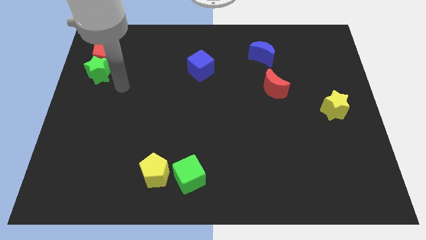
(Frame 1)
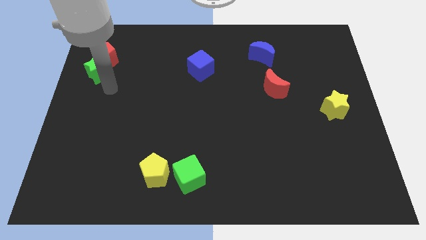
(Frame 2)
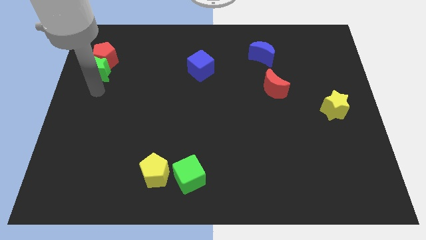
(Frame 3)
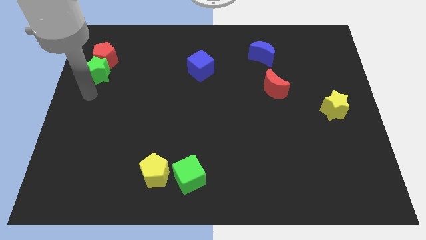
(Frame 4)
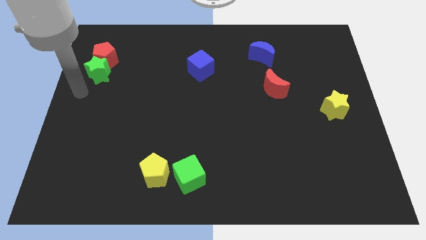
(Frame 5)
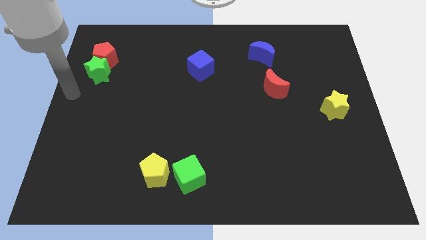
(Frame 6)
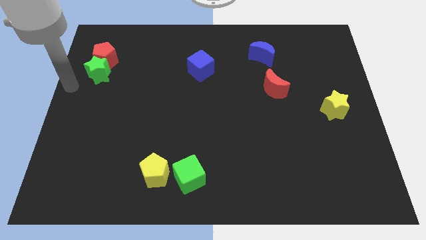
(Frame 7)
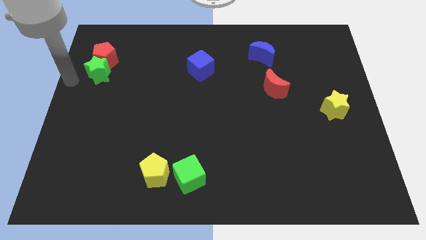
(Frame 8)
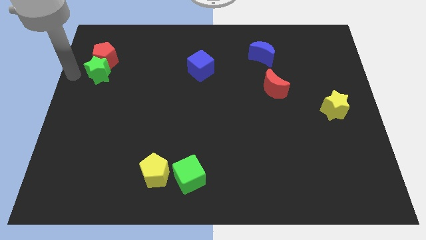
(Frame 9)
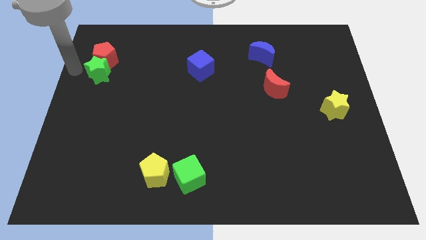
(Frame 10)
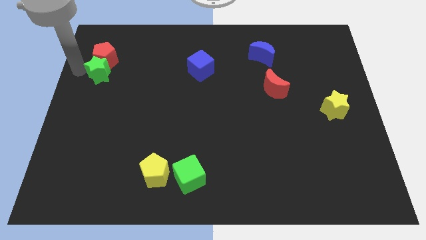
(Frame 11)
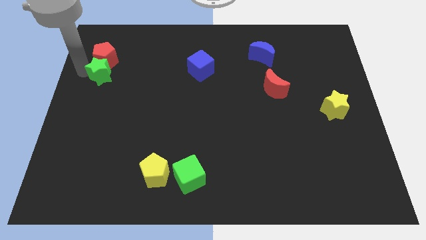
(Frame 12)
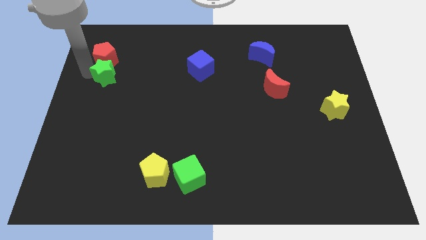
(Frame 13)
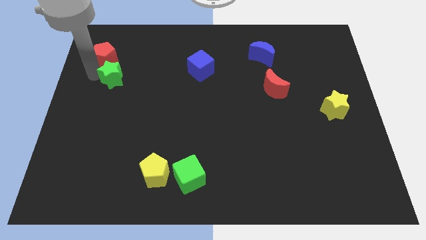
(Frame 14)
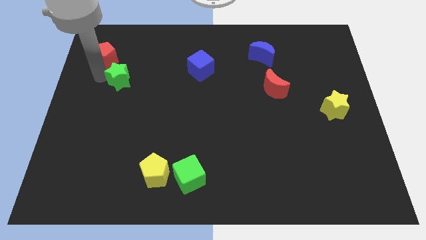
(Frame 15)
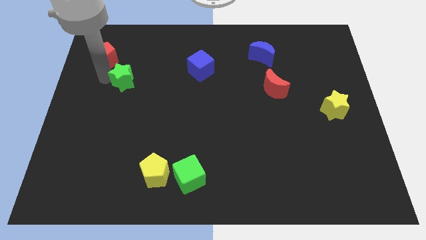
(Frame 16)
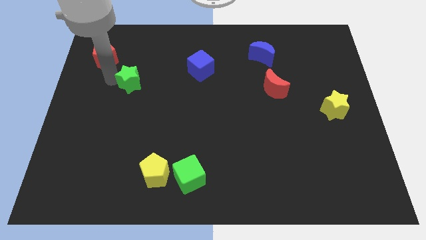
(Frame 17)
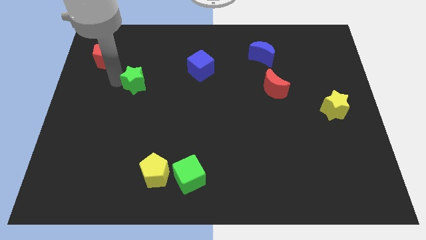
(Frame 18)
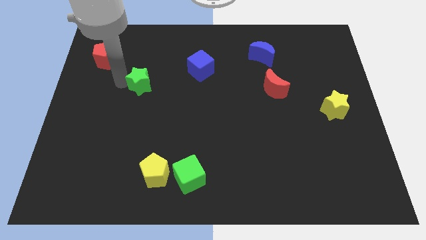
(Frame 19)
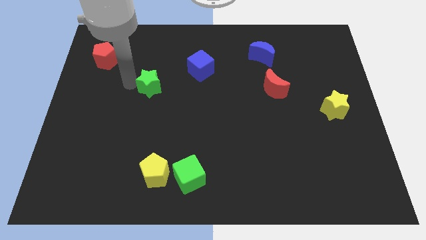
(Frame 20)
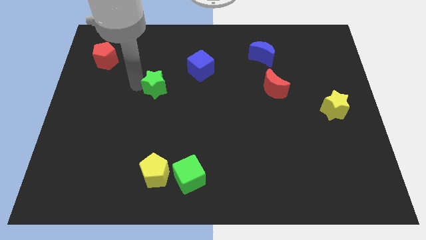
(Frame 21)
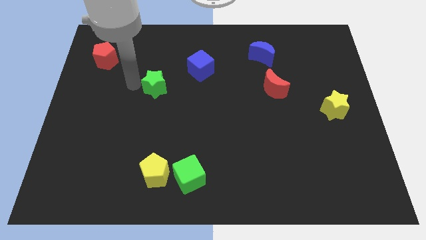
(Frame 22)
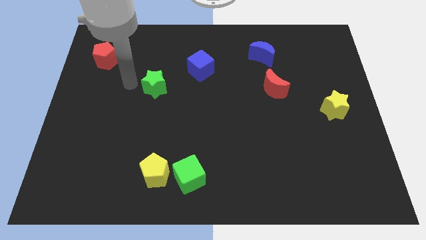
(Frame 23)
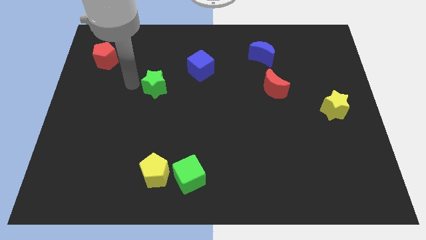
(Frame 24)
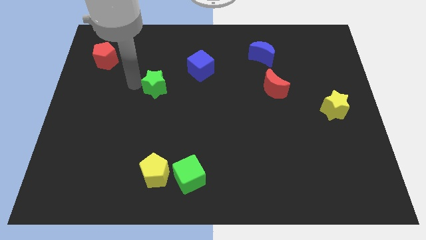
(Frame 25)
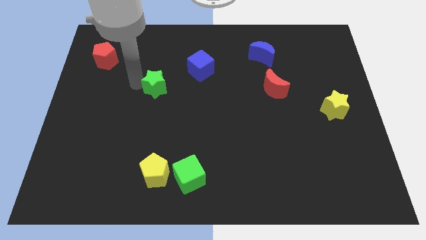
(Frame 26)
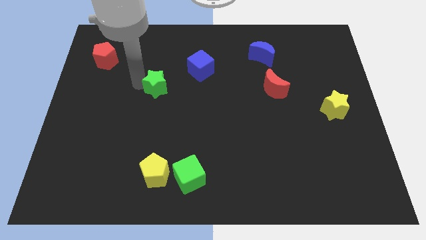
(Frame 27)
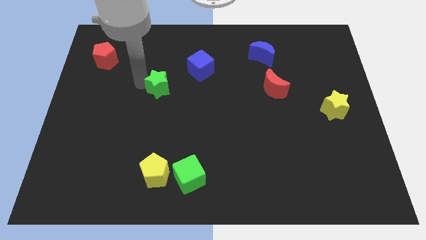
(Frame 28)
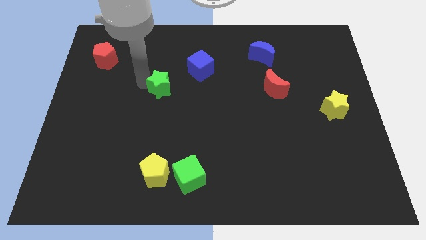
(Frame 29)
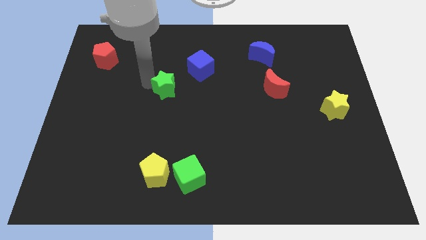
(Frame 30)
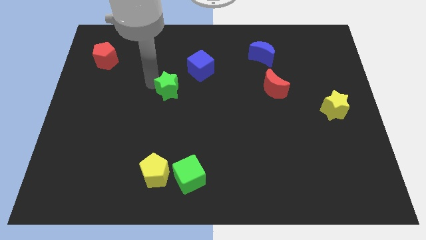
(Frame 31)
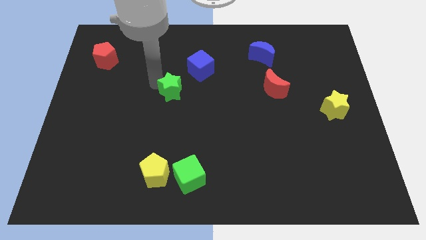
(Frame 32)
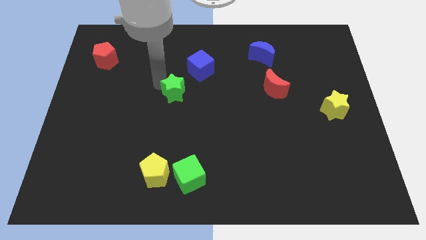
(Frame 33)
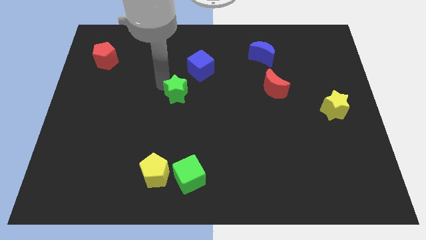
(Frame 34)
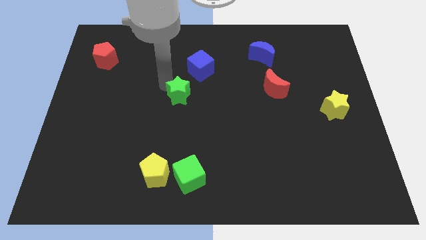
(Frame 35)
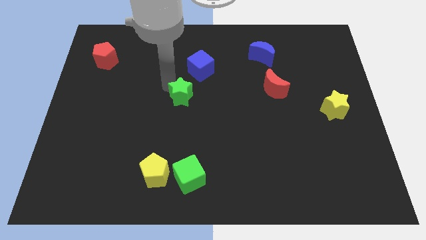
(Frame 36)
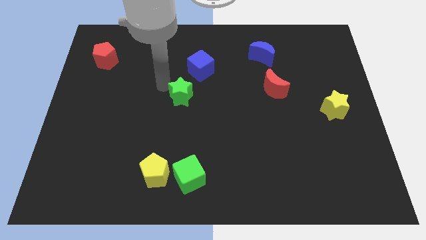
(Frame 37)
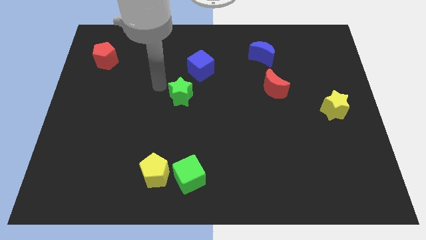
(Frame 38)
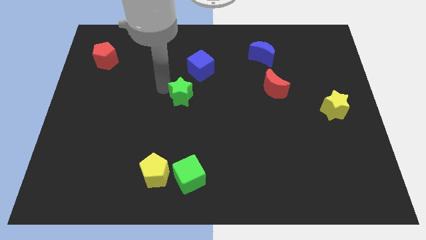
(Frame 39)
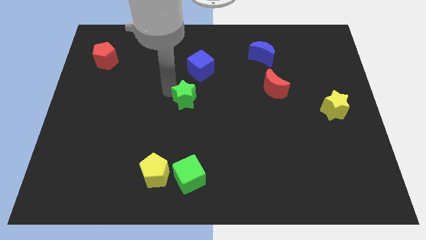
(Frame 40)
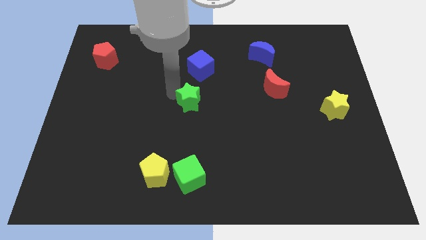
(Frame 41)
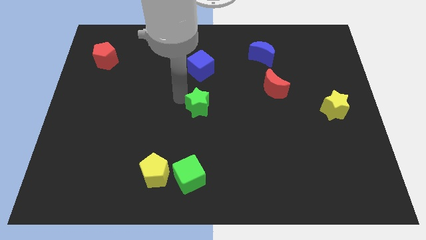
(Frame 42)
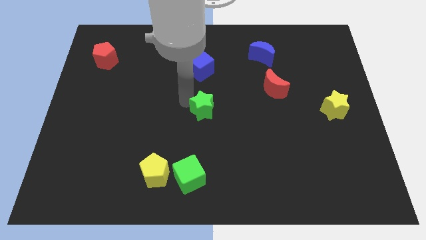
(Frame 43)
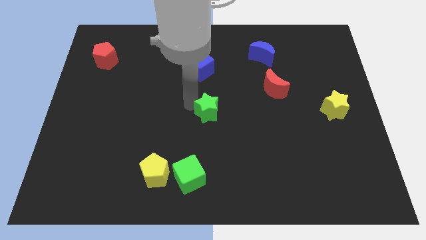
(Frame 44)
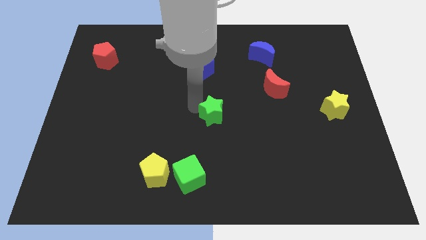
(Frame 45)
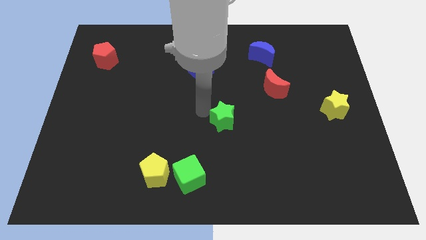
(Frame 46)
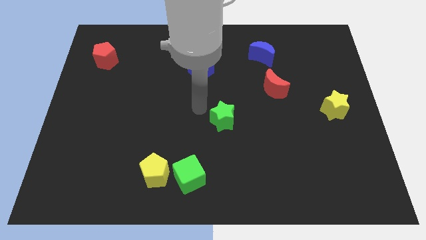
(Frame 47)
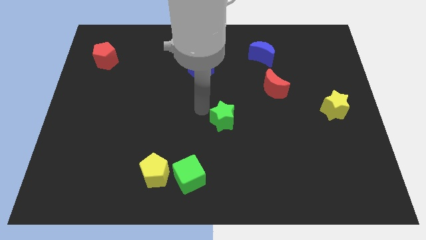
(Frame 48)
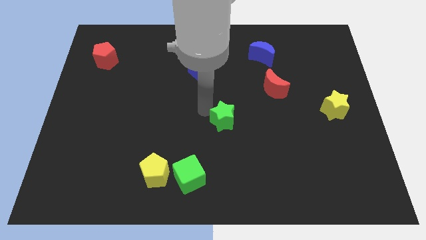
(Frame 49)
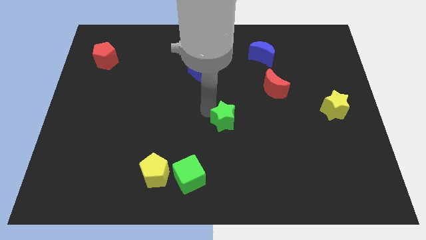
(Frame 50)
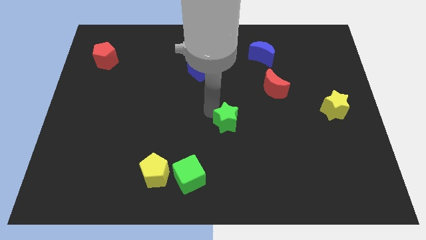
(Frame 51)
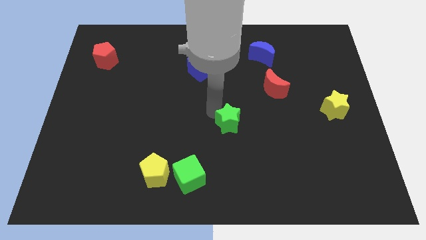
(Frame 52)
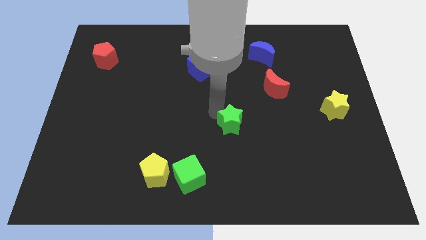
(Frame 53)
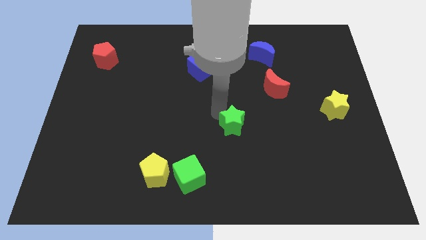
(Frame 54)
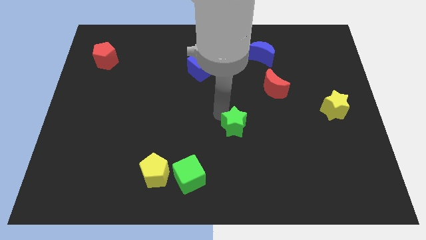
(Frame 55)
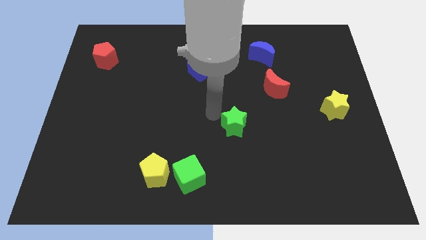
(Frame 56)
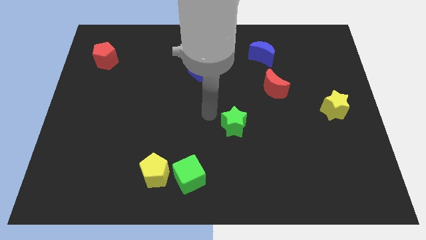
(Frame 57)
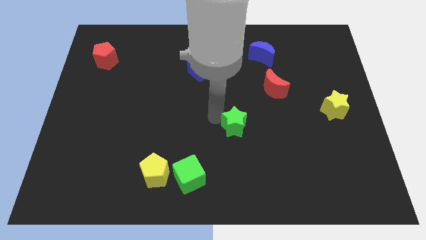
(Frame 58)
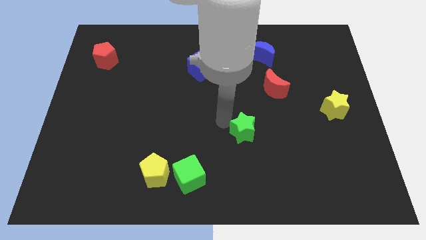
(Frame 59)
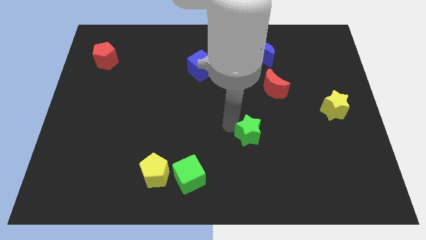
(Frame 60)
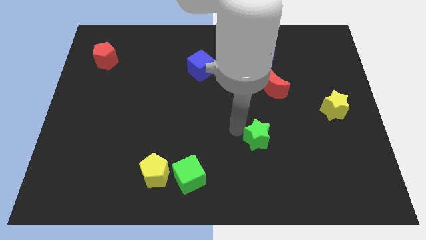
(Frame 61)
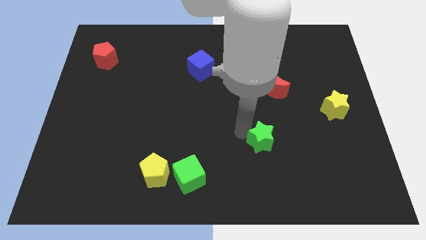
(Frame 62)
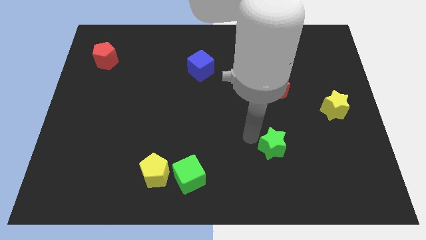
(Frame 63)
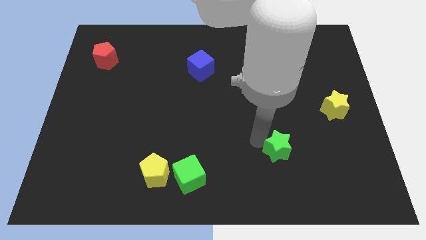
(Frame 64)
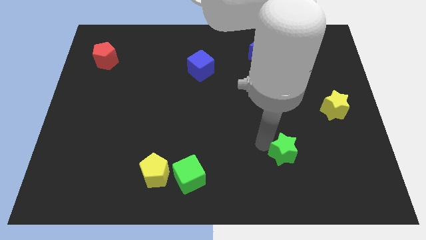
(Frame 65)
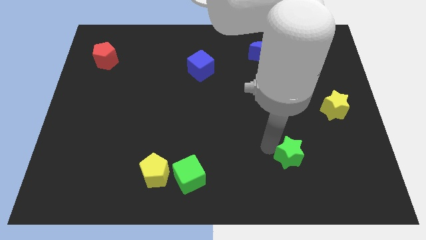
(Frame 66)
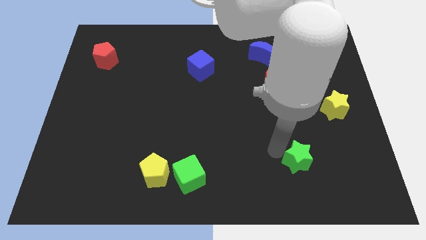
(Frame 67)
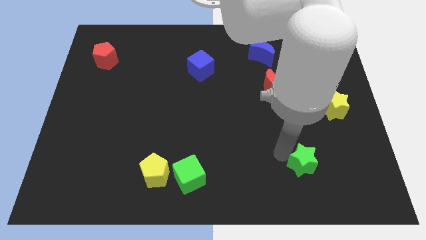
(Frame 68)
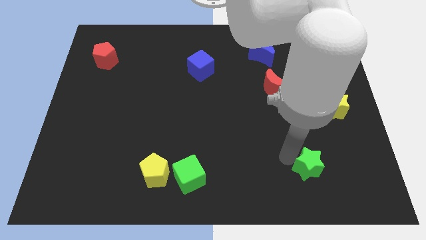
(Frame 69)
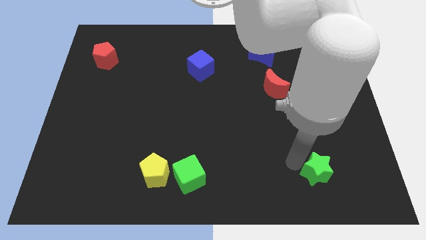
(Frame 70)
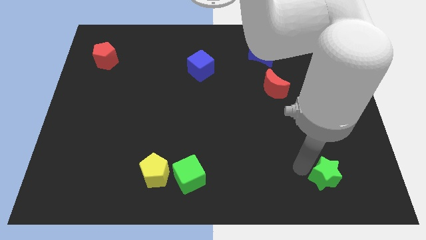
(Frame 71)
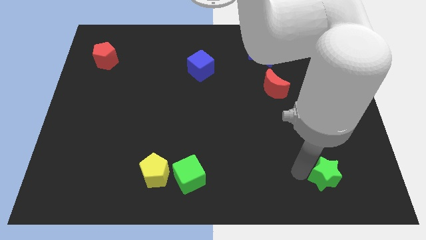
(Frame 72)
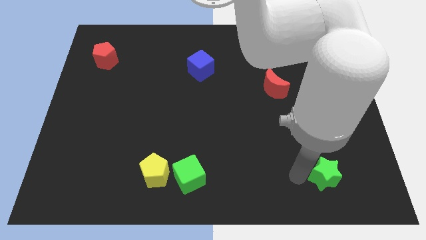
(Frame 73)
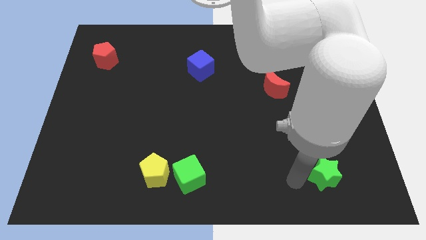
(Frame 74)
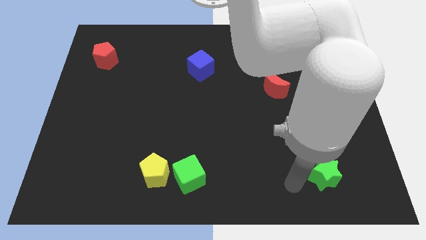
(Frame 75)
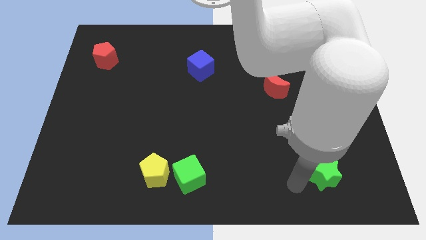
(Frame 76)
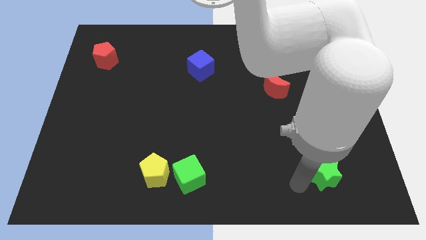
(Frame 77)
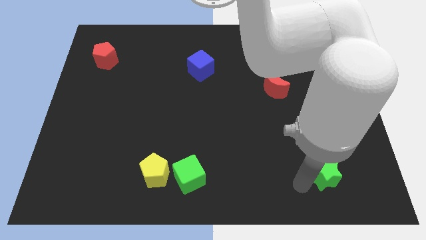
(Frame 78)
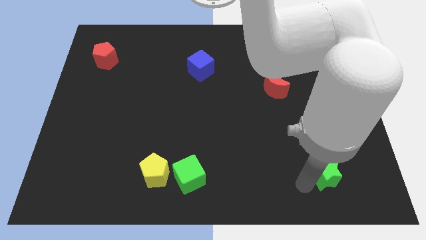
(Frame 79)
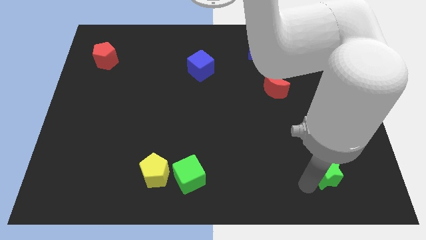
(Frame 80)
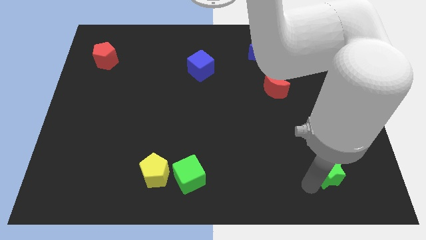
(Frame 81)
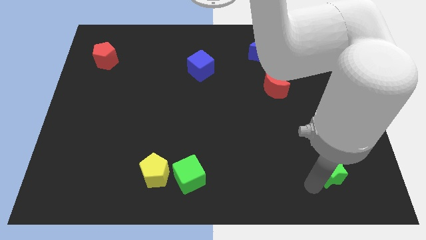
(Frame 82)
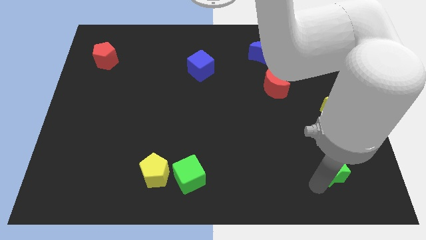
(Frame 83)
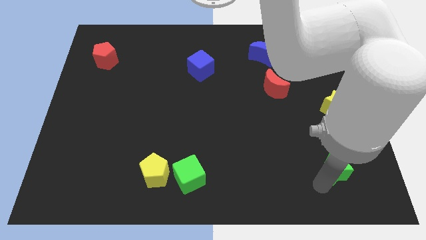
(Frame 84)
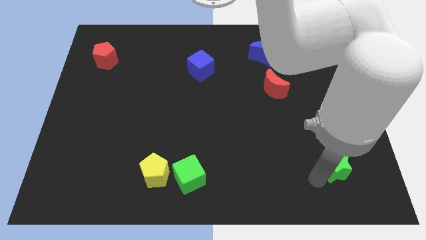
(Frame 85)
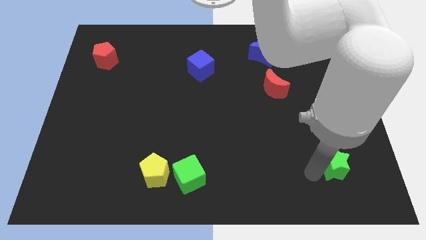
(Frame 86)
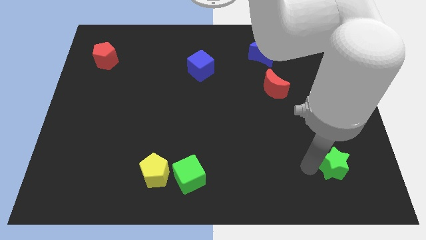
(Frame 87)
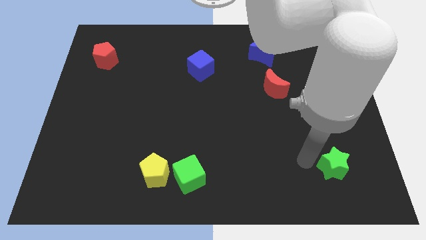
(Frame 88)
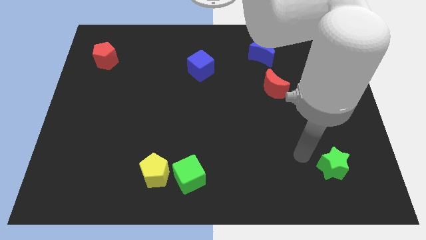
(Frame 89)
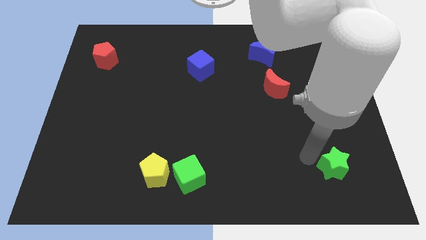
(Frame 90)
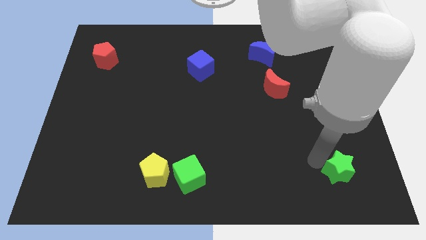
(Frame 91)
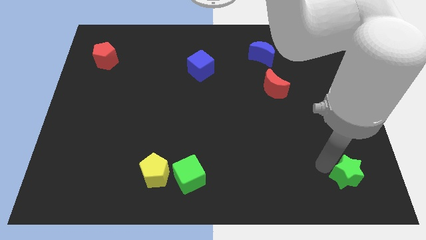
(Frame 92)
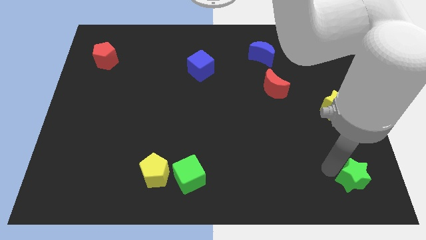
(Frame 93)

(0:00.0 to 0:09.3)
push the green star to the bottom right corner
